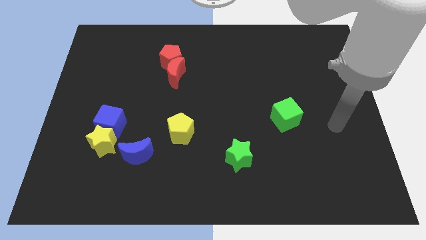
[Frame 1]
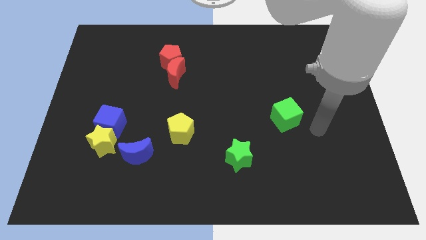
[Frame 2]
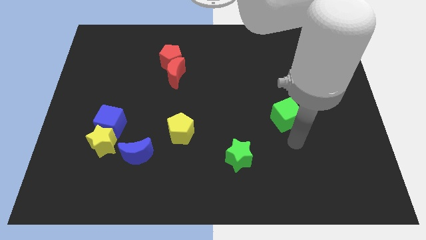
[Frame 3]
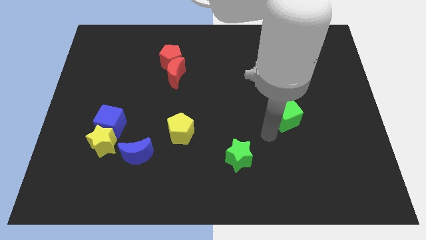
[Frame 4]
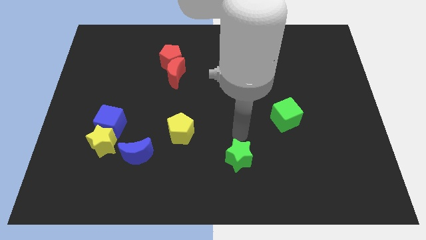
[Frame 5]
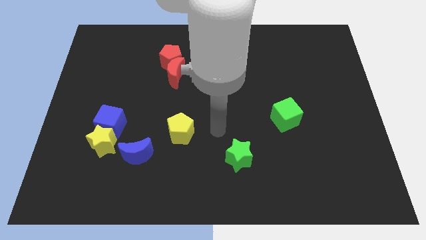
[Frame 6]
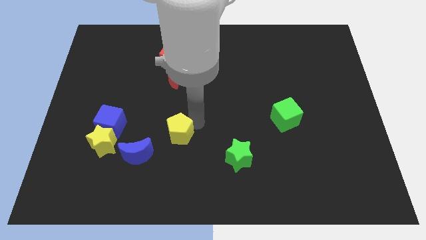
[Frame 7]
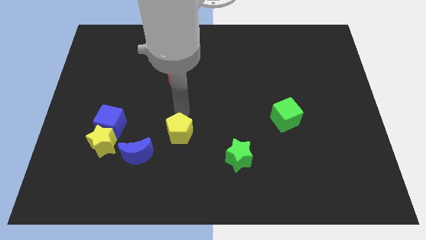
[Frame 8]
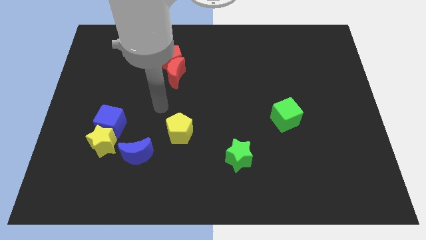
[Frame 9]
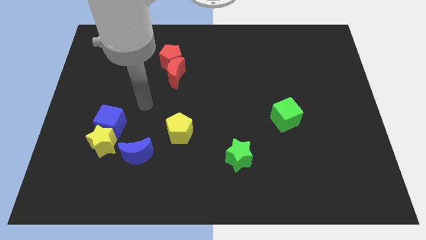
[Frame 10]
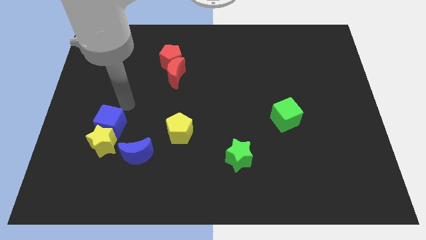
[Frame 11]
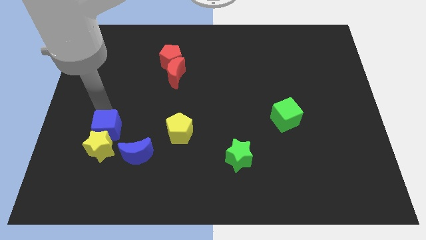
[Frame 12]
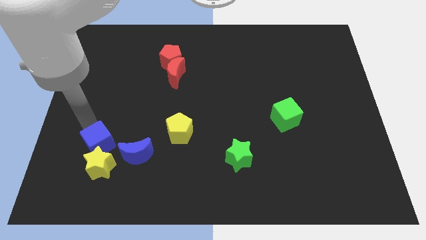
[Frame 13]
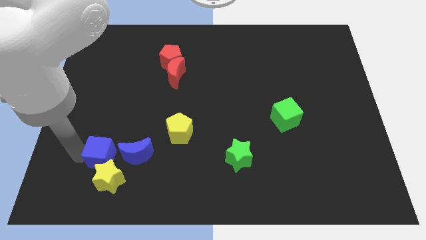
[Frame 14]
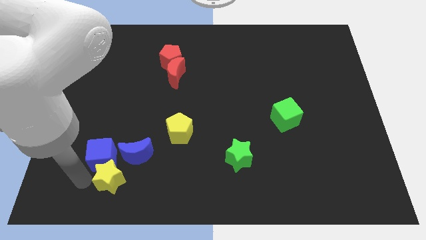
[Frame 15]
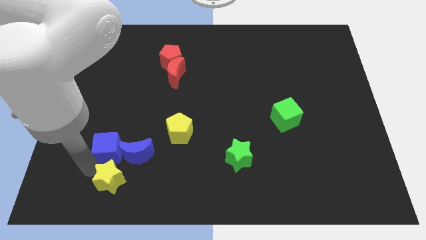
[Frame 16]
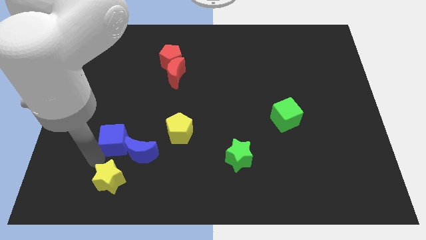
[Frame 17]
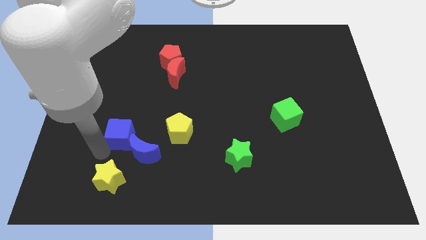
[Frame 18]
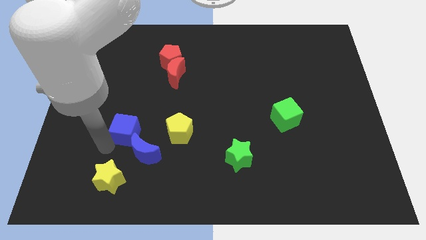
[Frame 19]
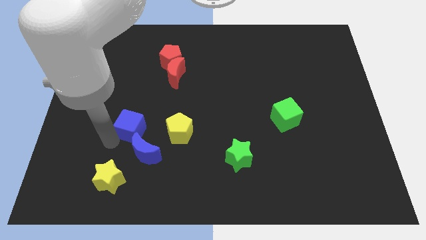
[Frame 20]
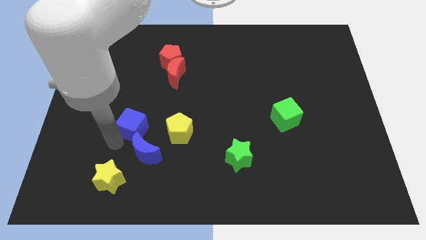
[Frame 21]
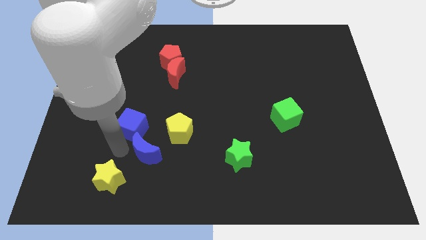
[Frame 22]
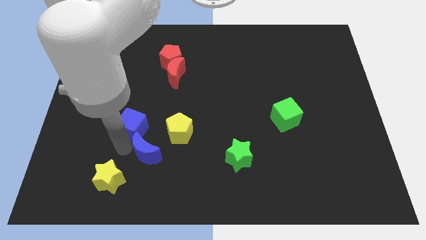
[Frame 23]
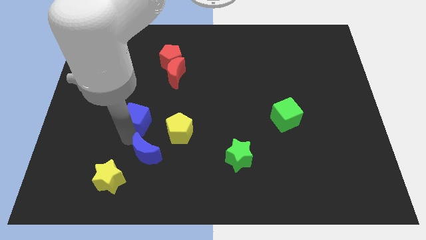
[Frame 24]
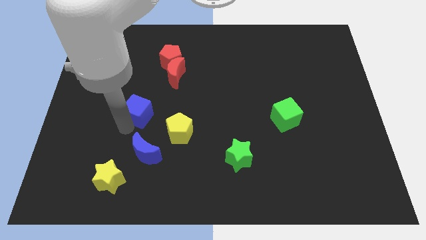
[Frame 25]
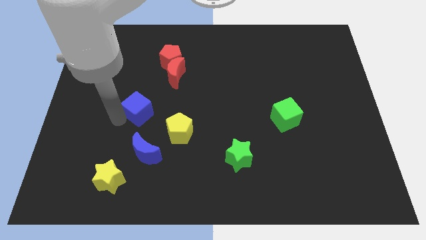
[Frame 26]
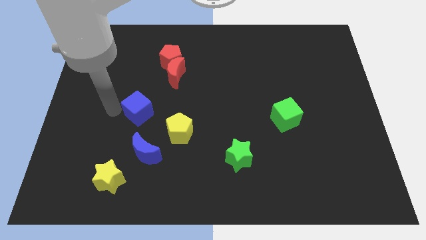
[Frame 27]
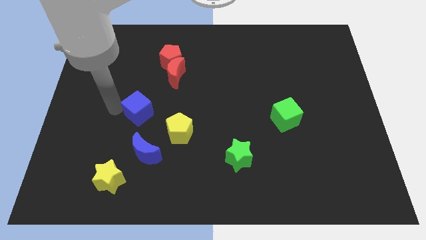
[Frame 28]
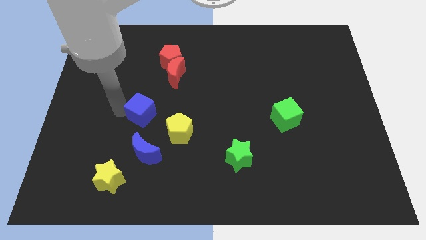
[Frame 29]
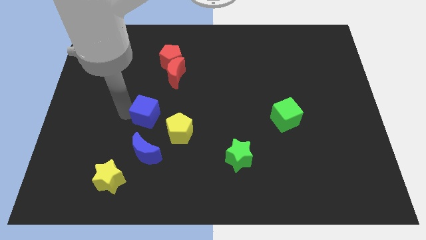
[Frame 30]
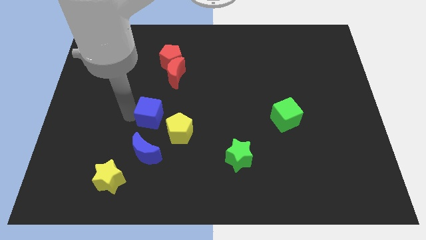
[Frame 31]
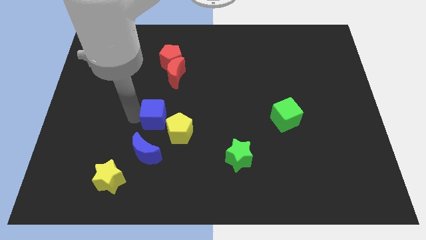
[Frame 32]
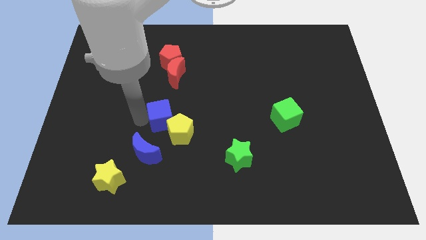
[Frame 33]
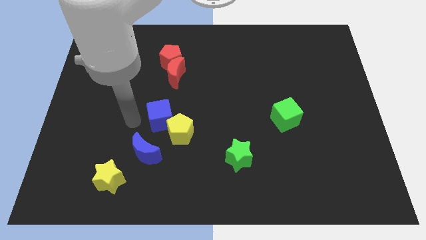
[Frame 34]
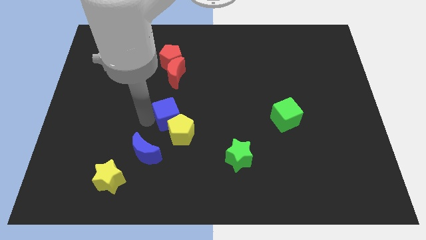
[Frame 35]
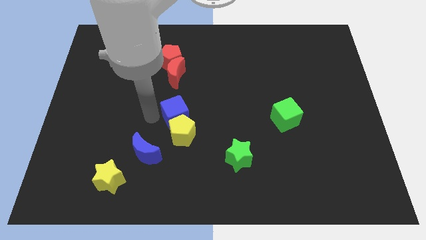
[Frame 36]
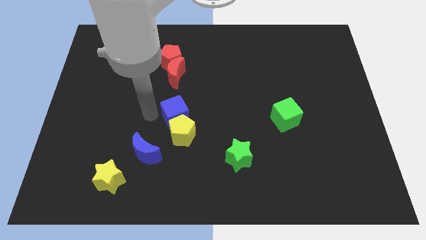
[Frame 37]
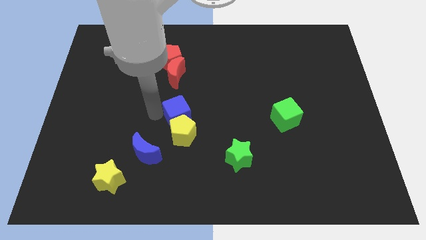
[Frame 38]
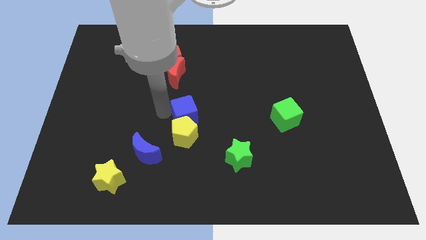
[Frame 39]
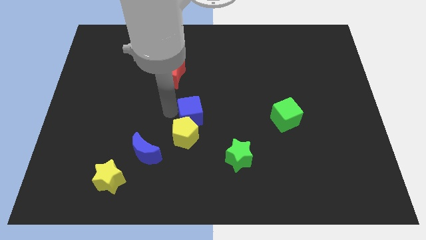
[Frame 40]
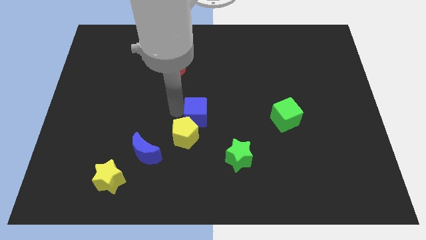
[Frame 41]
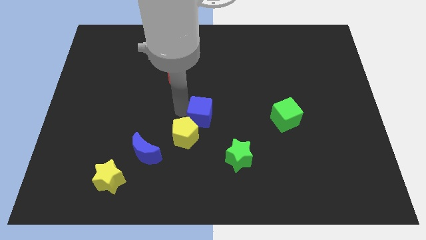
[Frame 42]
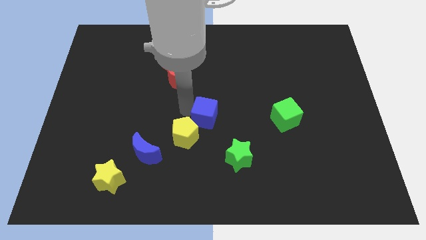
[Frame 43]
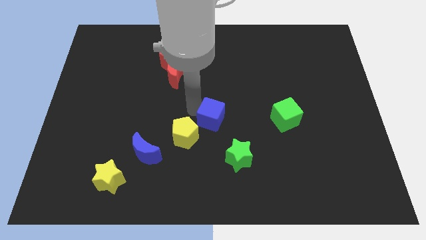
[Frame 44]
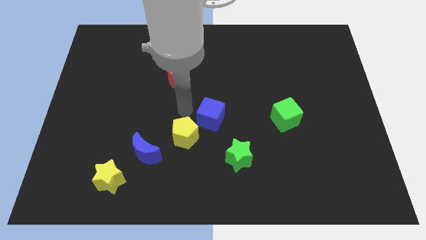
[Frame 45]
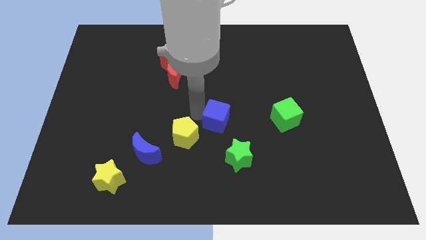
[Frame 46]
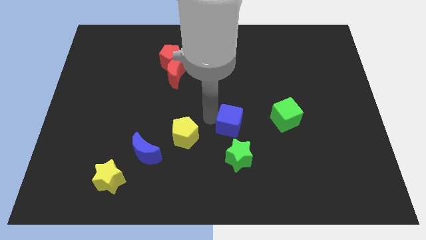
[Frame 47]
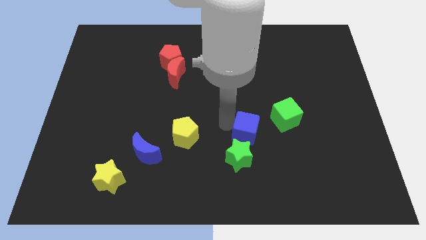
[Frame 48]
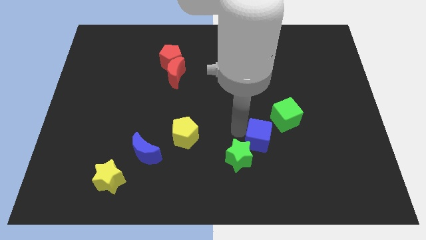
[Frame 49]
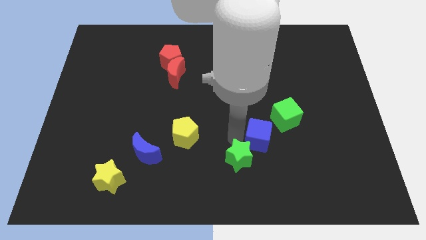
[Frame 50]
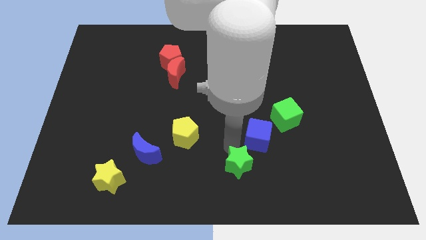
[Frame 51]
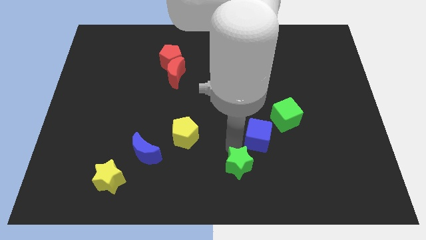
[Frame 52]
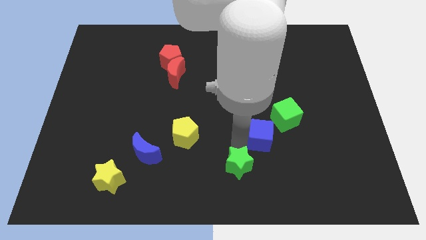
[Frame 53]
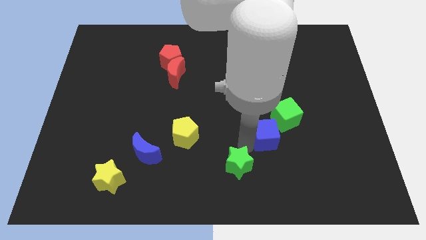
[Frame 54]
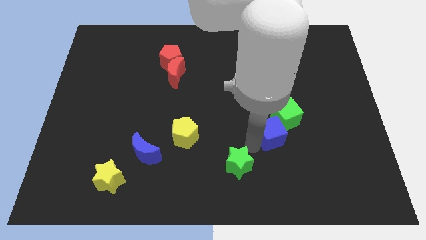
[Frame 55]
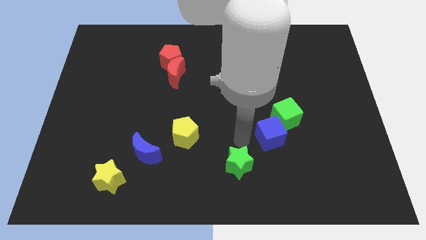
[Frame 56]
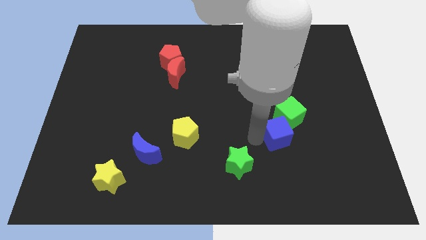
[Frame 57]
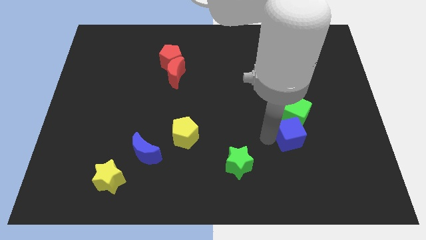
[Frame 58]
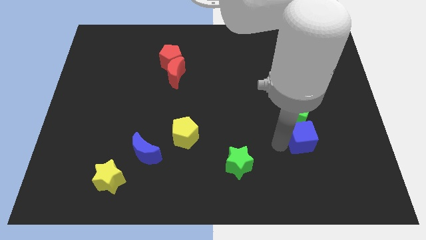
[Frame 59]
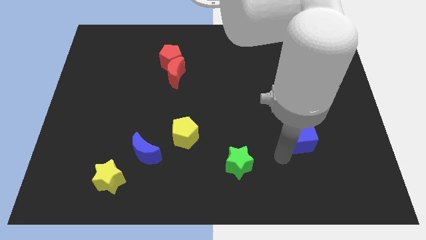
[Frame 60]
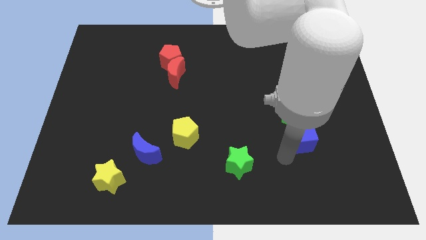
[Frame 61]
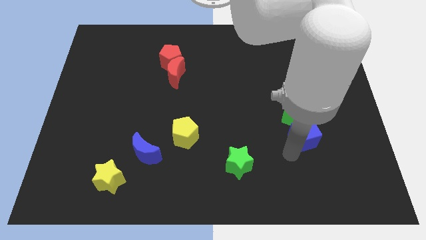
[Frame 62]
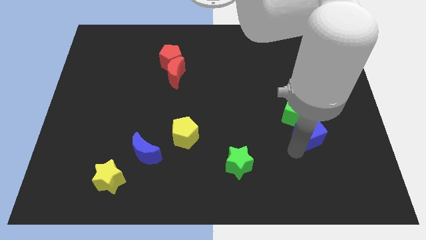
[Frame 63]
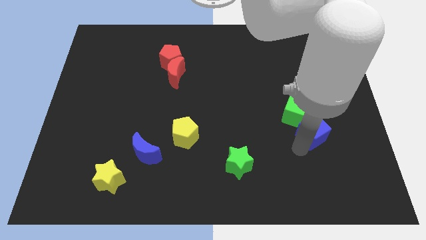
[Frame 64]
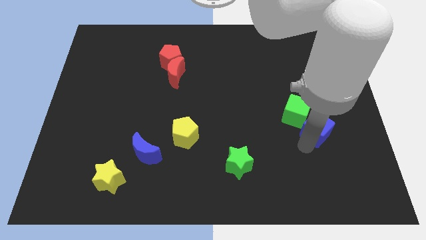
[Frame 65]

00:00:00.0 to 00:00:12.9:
slide the blue cube right of the green cube

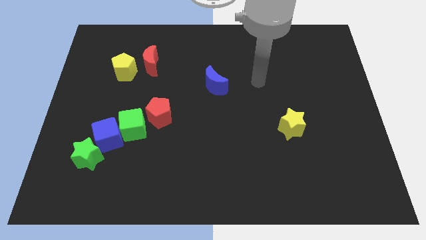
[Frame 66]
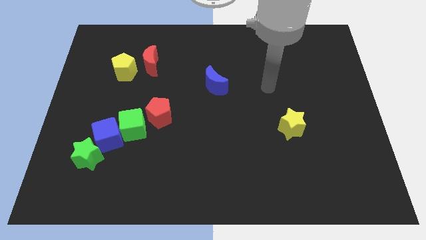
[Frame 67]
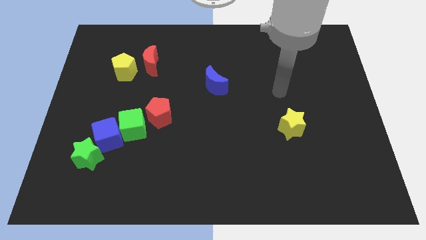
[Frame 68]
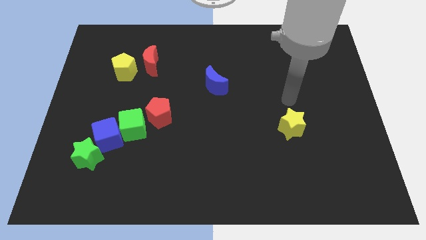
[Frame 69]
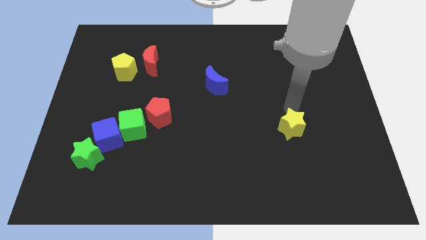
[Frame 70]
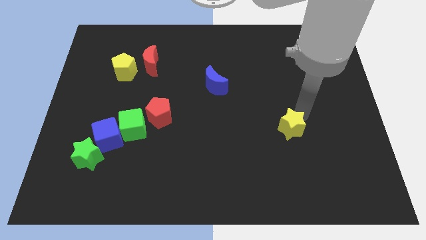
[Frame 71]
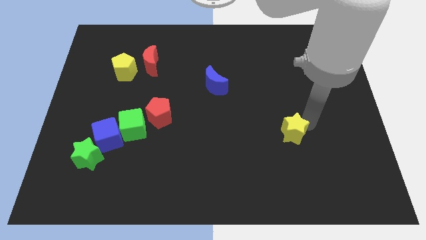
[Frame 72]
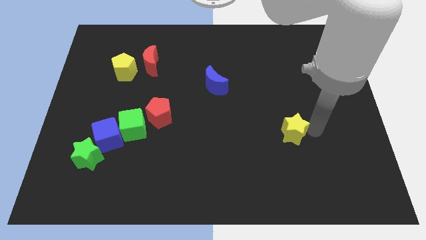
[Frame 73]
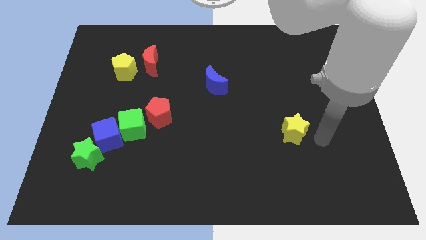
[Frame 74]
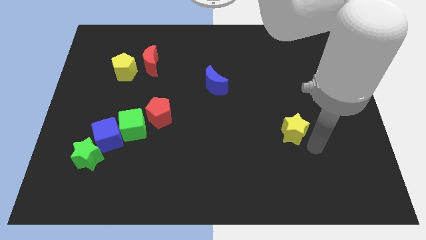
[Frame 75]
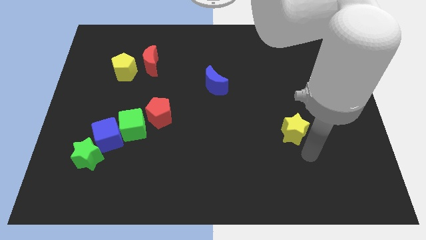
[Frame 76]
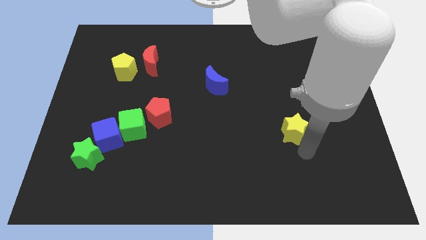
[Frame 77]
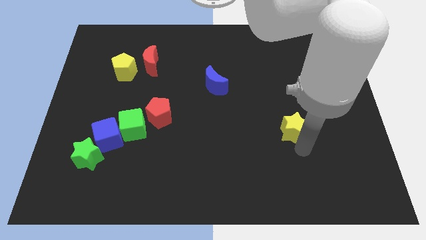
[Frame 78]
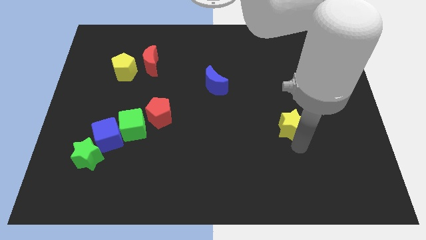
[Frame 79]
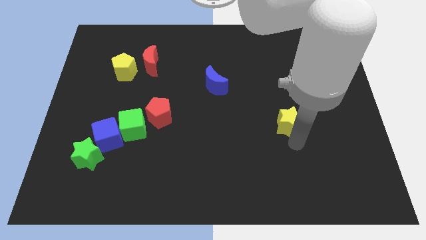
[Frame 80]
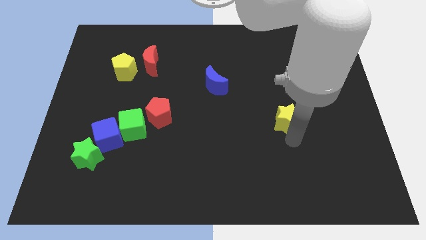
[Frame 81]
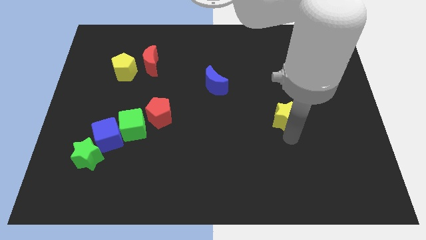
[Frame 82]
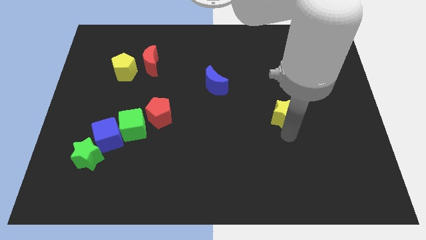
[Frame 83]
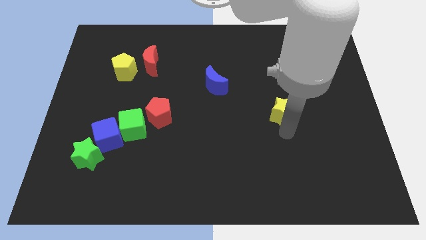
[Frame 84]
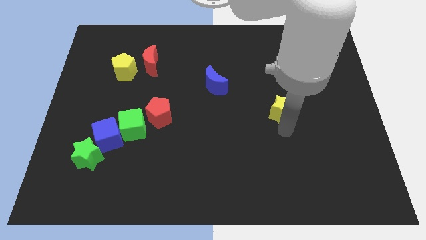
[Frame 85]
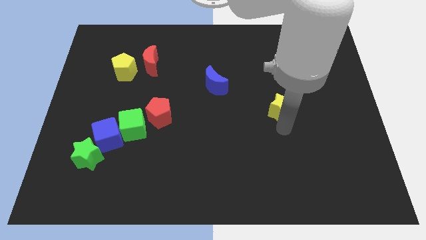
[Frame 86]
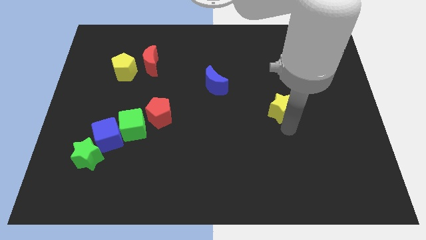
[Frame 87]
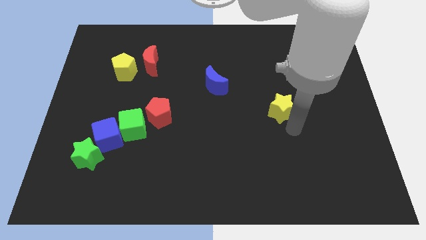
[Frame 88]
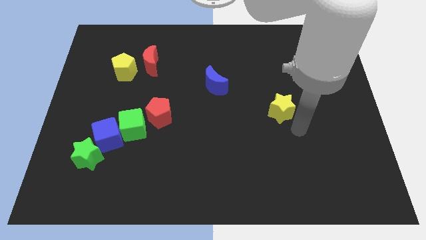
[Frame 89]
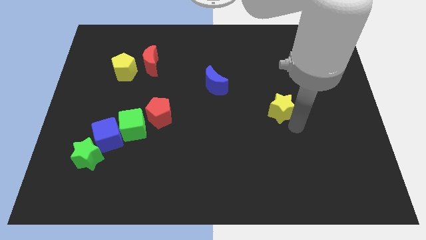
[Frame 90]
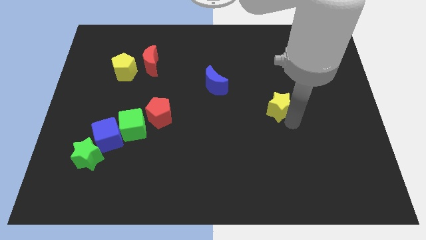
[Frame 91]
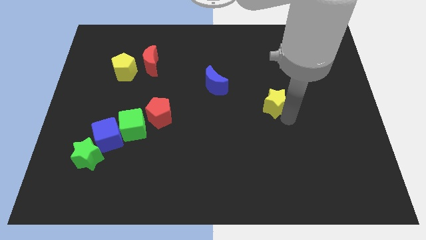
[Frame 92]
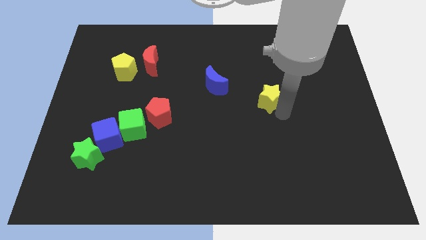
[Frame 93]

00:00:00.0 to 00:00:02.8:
move the yellow star to the right side of the blue moon
